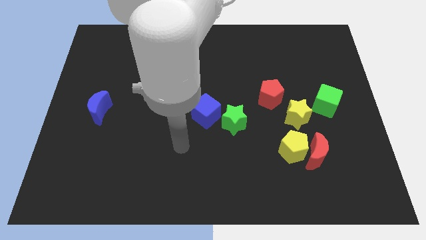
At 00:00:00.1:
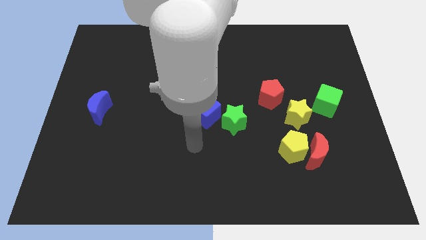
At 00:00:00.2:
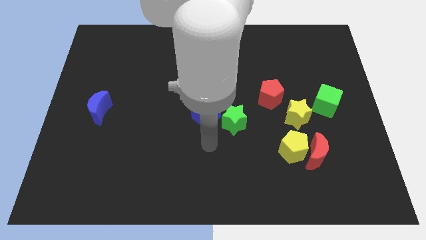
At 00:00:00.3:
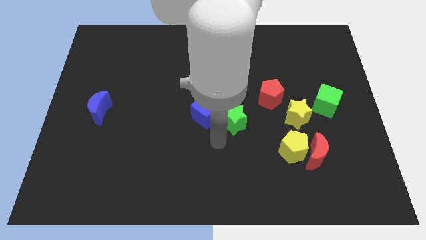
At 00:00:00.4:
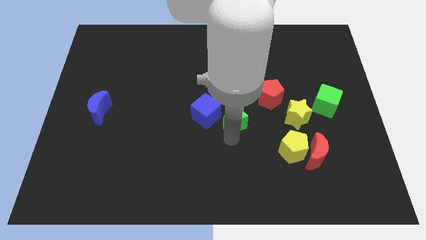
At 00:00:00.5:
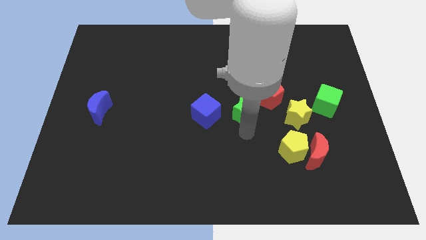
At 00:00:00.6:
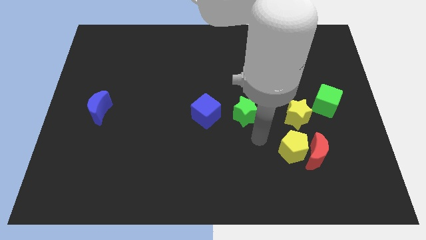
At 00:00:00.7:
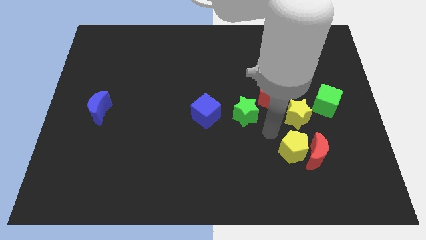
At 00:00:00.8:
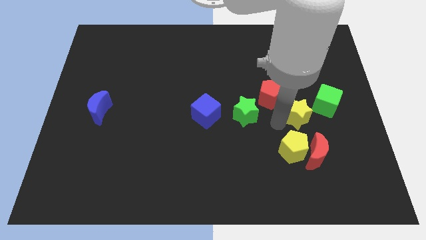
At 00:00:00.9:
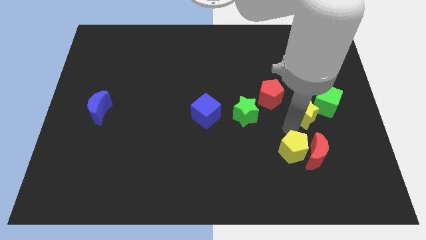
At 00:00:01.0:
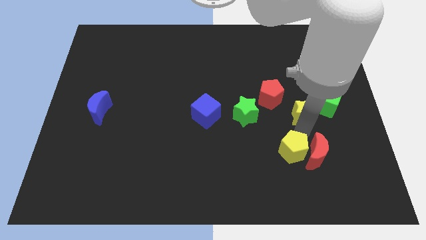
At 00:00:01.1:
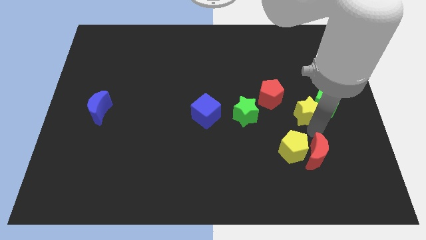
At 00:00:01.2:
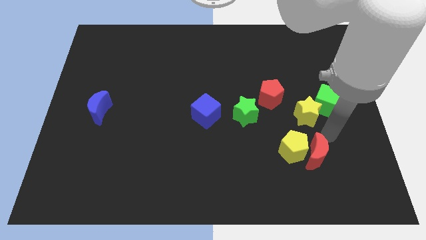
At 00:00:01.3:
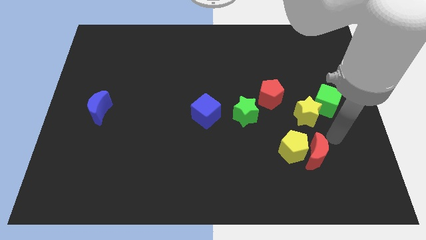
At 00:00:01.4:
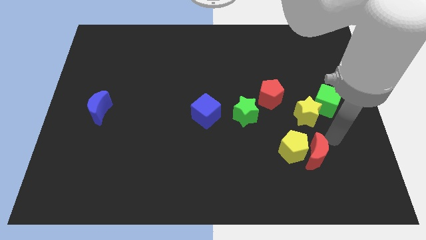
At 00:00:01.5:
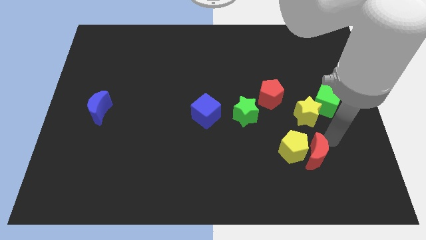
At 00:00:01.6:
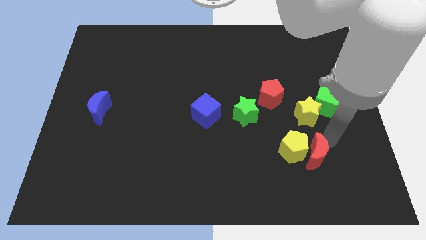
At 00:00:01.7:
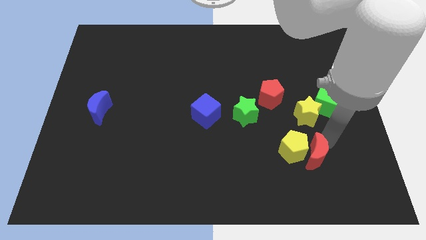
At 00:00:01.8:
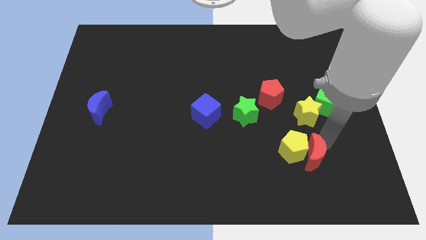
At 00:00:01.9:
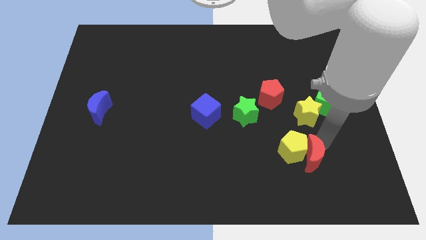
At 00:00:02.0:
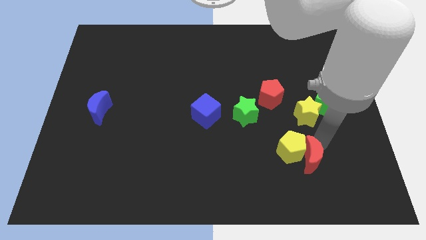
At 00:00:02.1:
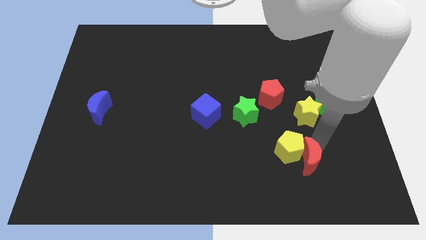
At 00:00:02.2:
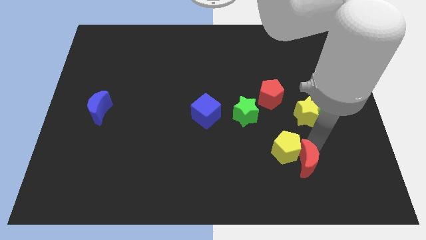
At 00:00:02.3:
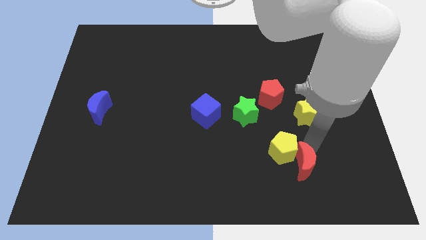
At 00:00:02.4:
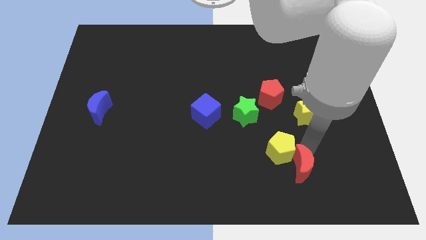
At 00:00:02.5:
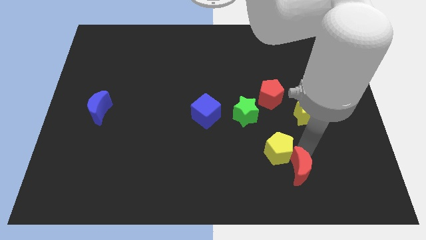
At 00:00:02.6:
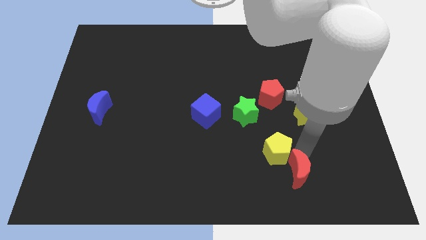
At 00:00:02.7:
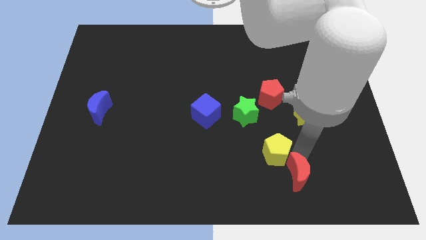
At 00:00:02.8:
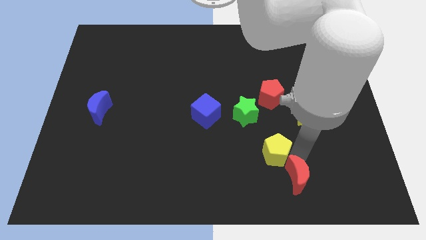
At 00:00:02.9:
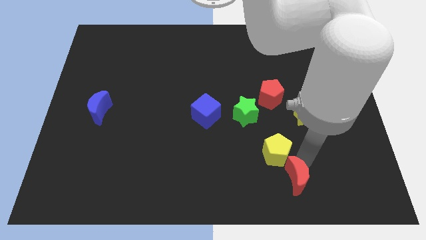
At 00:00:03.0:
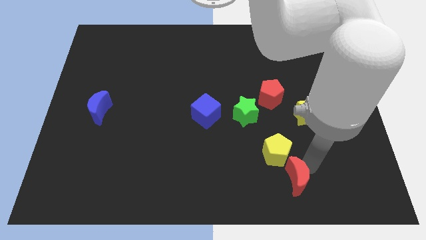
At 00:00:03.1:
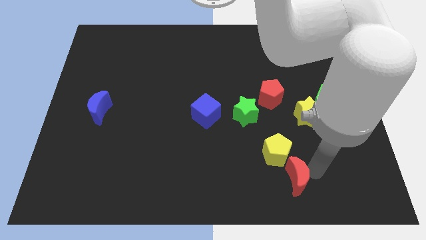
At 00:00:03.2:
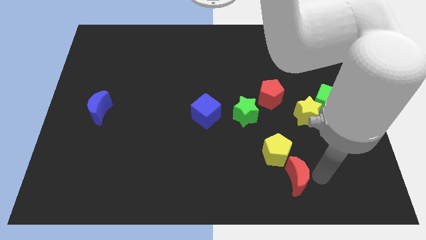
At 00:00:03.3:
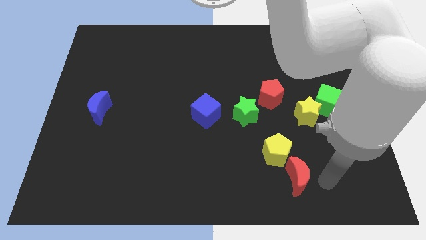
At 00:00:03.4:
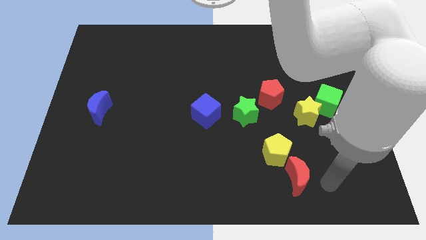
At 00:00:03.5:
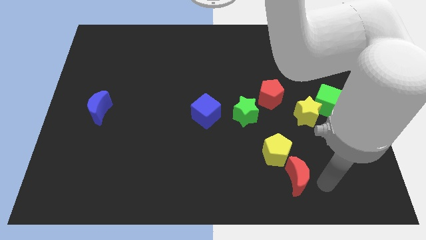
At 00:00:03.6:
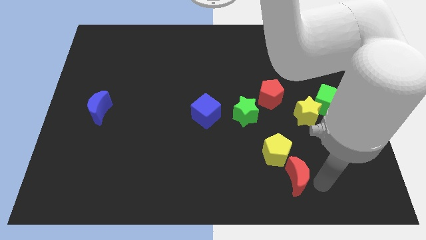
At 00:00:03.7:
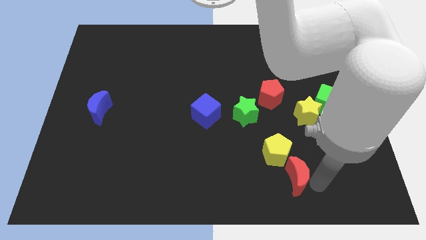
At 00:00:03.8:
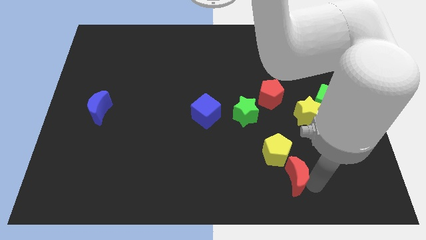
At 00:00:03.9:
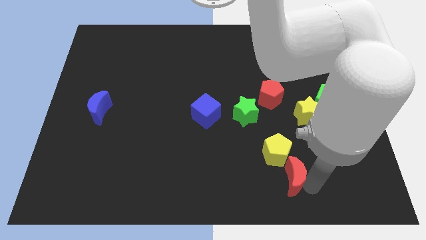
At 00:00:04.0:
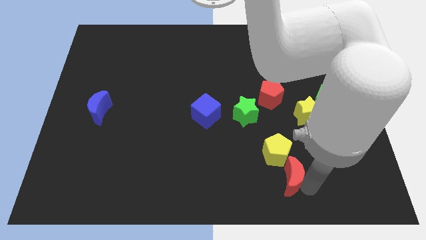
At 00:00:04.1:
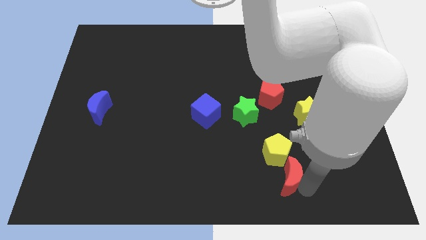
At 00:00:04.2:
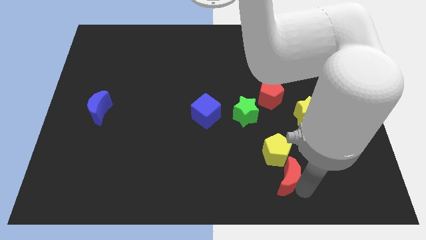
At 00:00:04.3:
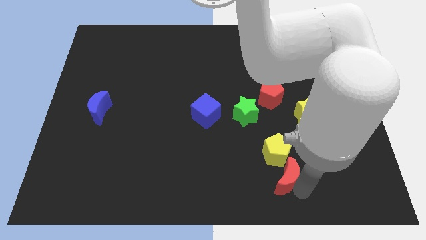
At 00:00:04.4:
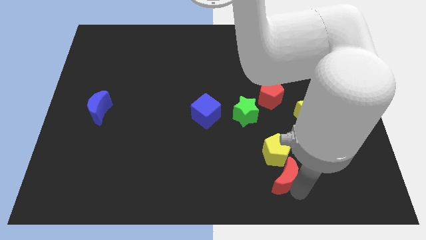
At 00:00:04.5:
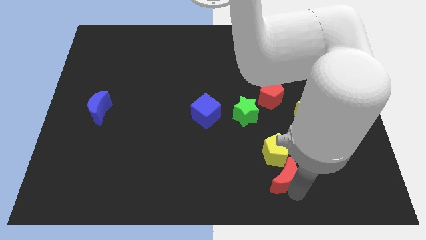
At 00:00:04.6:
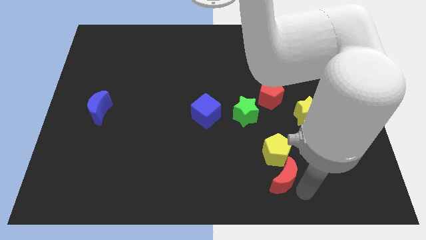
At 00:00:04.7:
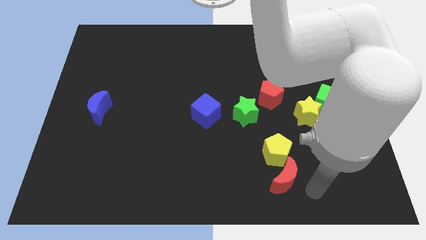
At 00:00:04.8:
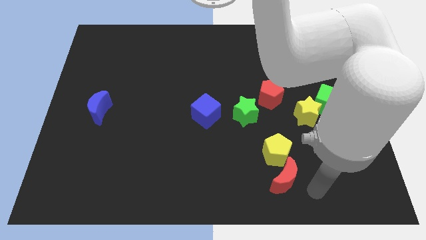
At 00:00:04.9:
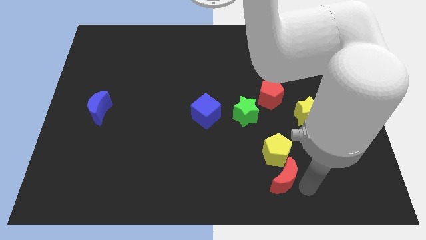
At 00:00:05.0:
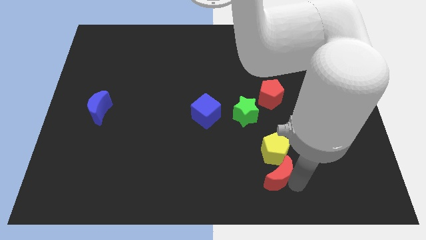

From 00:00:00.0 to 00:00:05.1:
slide the red moon a little left

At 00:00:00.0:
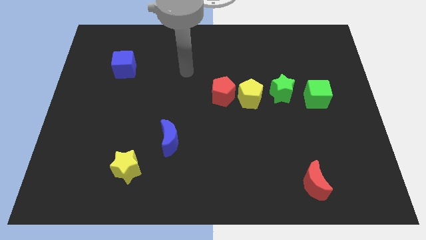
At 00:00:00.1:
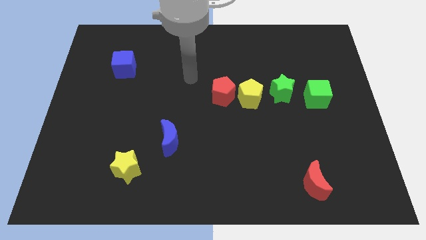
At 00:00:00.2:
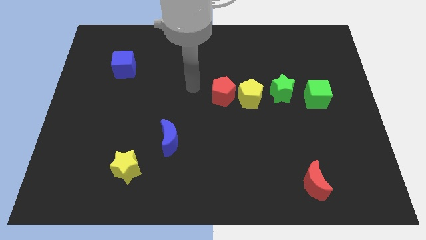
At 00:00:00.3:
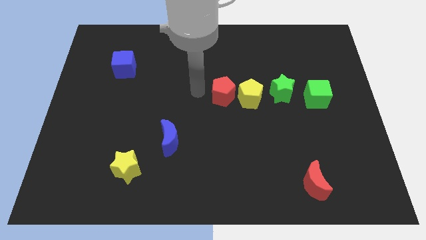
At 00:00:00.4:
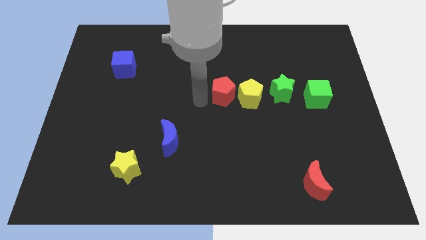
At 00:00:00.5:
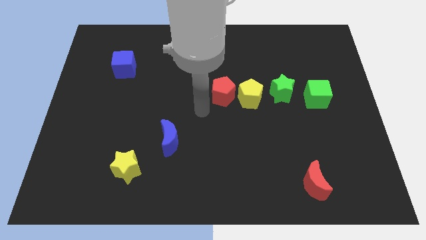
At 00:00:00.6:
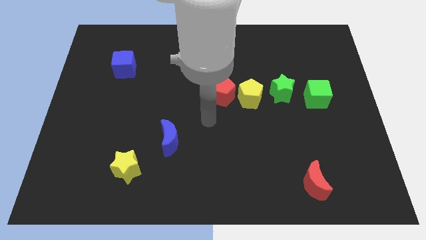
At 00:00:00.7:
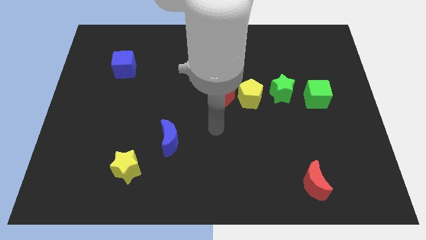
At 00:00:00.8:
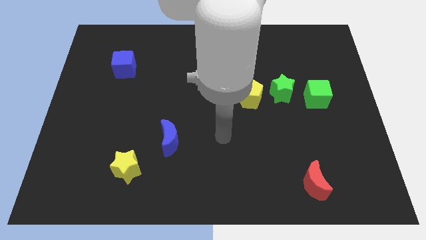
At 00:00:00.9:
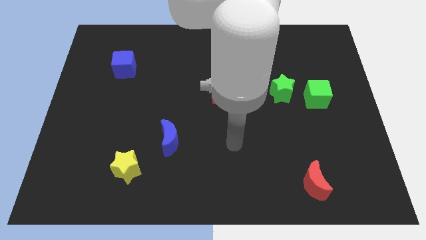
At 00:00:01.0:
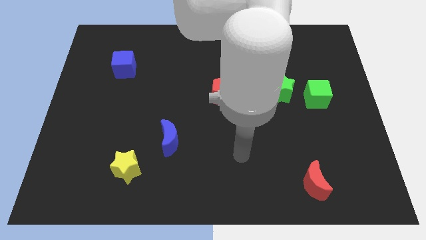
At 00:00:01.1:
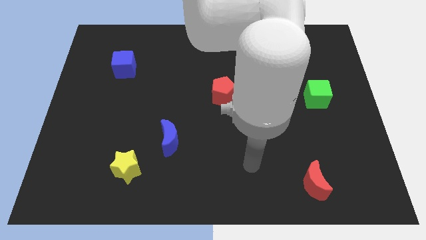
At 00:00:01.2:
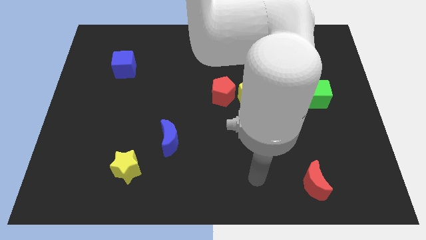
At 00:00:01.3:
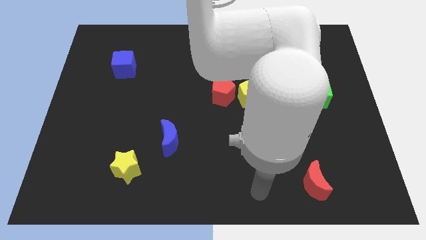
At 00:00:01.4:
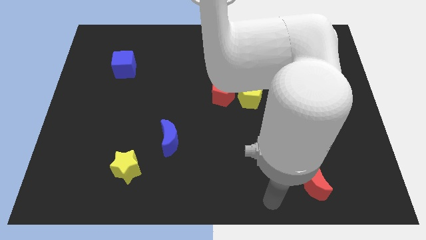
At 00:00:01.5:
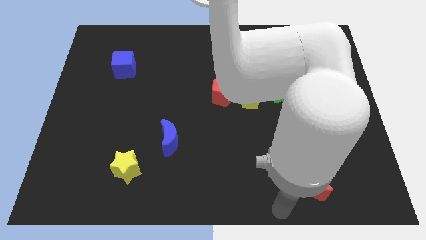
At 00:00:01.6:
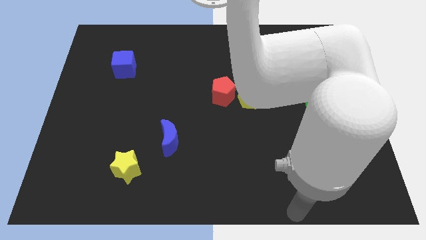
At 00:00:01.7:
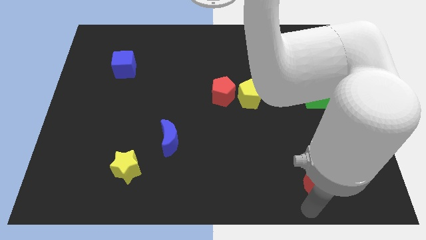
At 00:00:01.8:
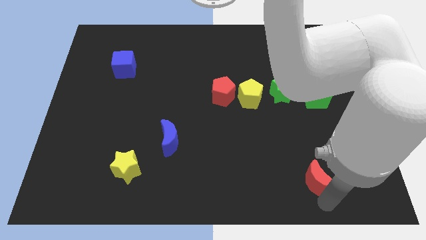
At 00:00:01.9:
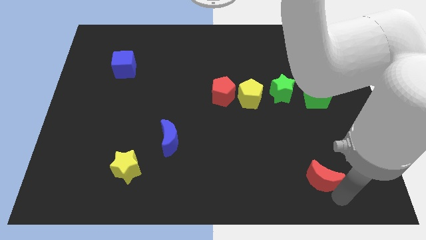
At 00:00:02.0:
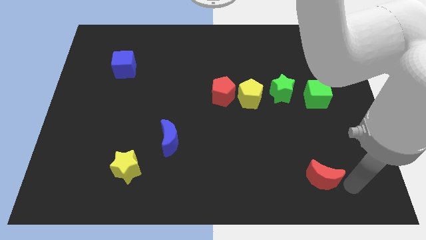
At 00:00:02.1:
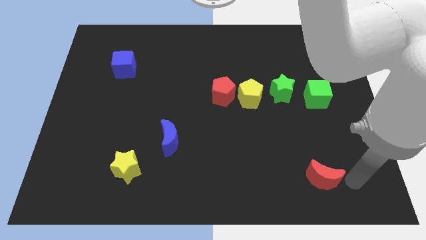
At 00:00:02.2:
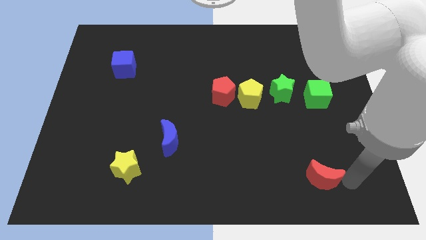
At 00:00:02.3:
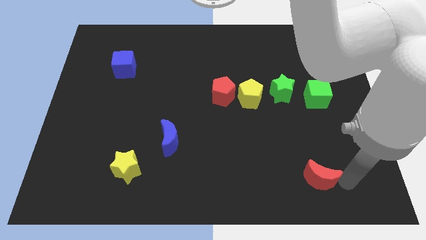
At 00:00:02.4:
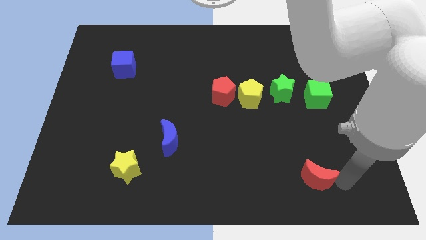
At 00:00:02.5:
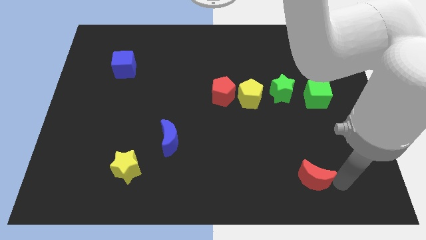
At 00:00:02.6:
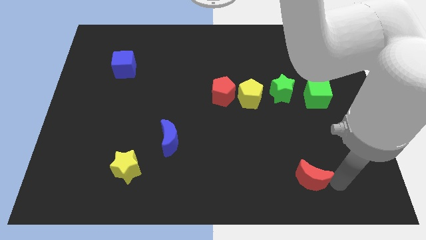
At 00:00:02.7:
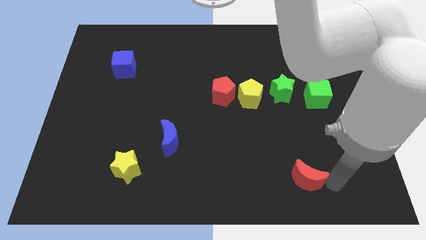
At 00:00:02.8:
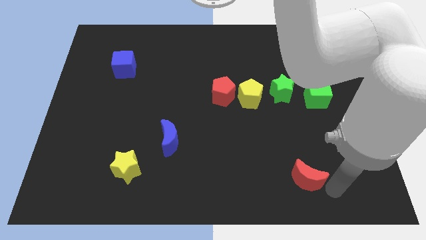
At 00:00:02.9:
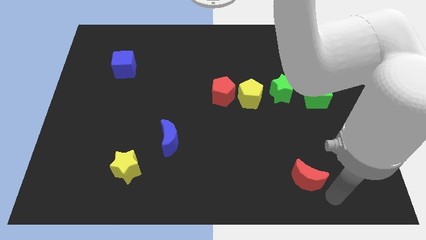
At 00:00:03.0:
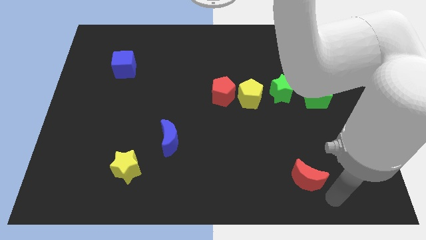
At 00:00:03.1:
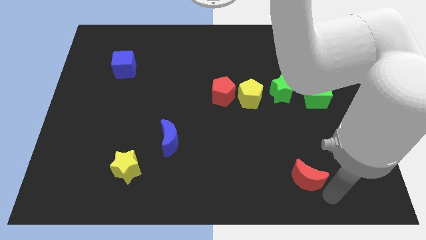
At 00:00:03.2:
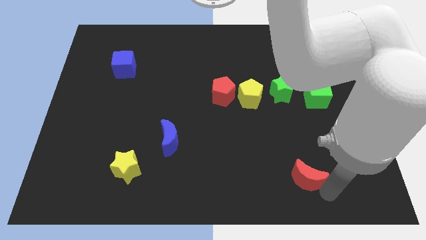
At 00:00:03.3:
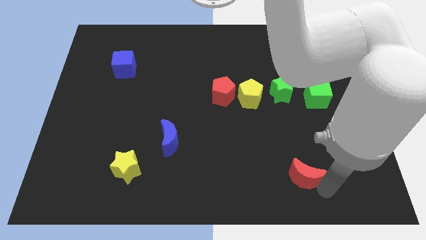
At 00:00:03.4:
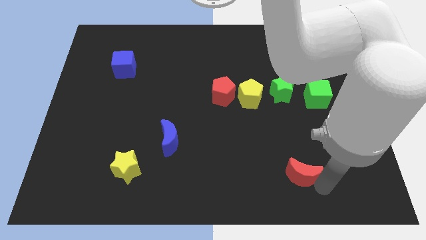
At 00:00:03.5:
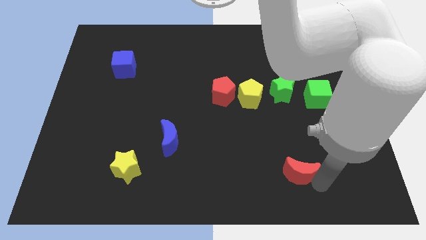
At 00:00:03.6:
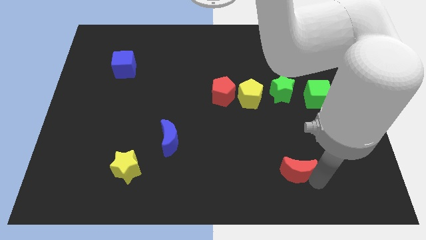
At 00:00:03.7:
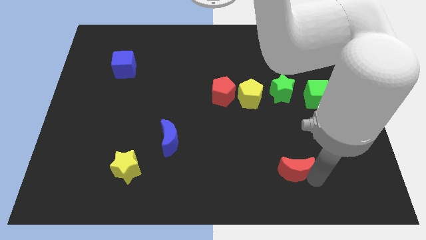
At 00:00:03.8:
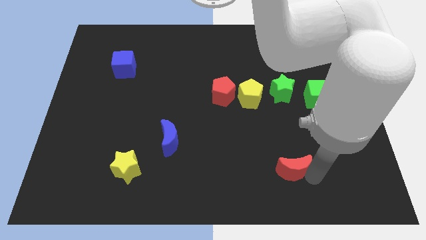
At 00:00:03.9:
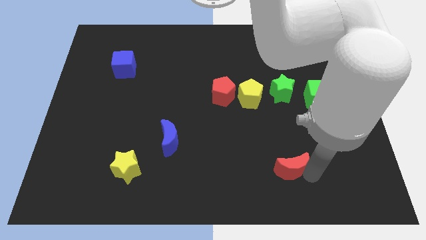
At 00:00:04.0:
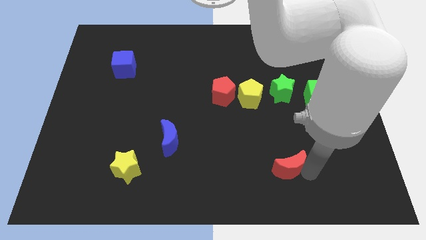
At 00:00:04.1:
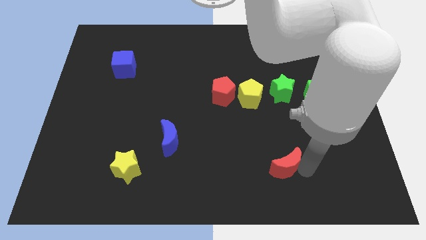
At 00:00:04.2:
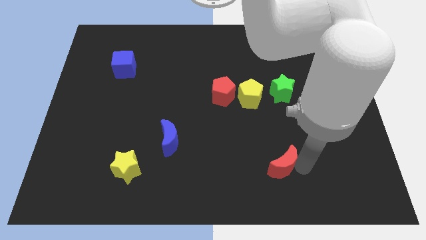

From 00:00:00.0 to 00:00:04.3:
move the red moon a little upwards and to the left diagonally
